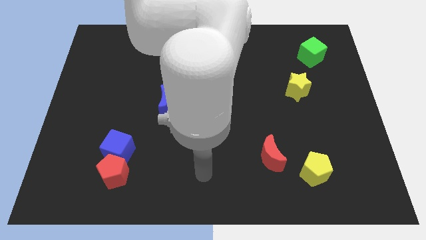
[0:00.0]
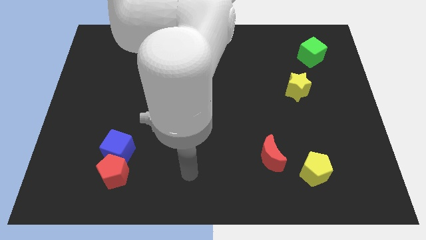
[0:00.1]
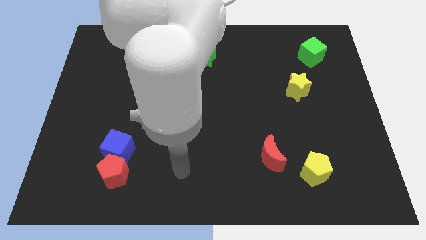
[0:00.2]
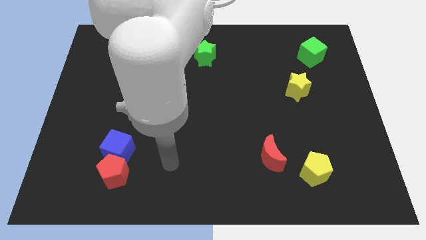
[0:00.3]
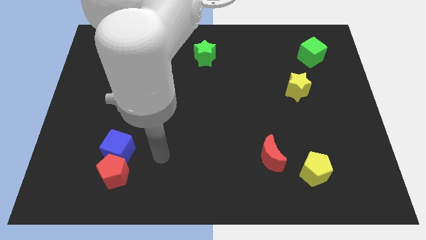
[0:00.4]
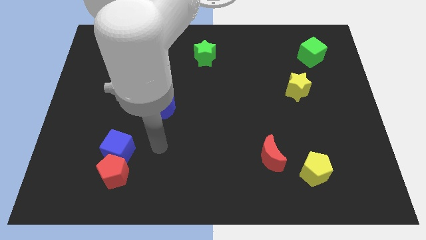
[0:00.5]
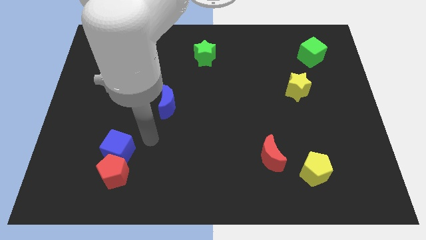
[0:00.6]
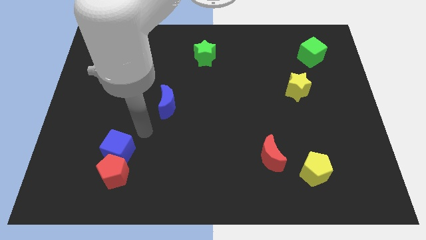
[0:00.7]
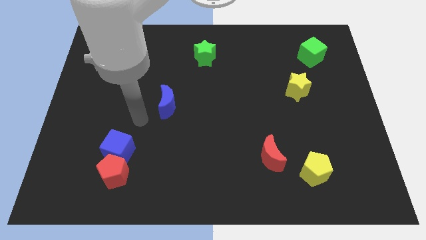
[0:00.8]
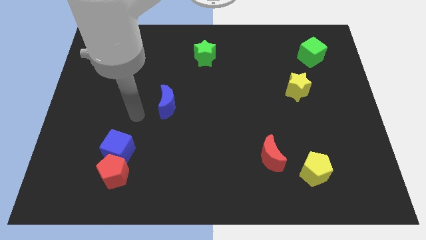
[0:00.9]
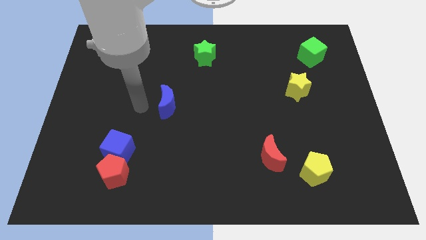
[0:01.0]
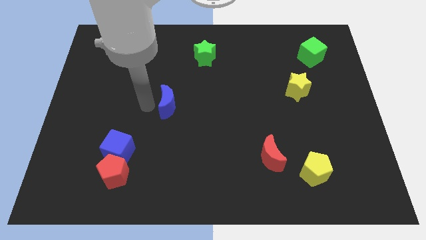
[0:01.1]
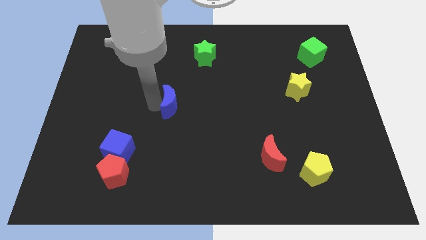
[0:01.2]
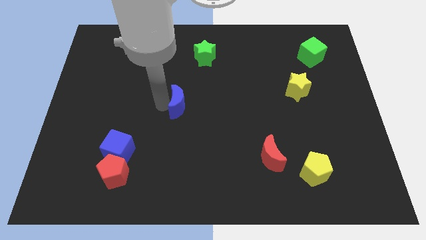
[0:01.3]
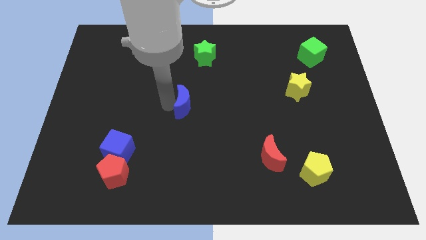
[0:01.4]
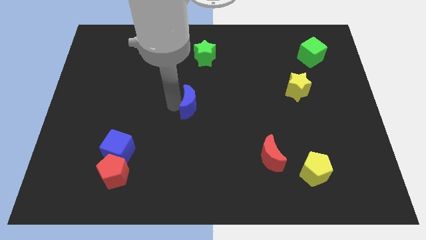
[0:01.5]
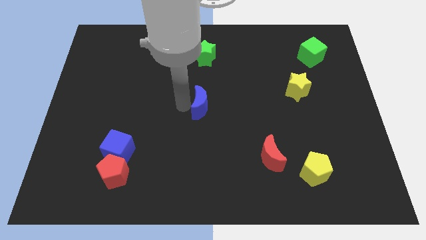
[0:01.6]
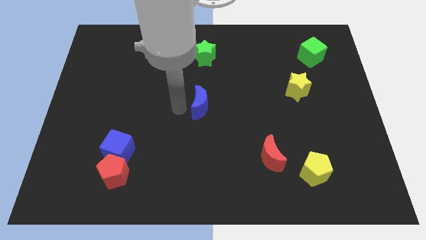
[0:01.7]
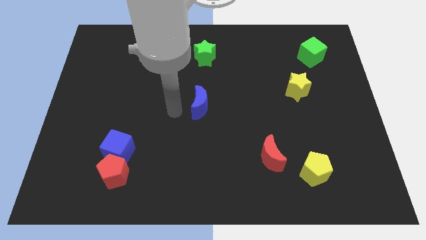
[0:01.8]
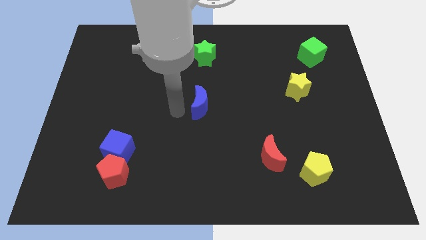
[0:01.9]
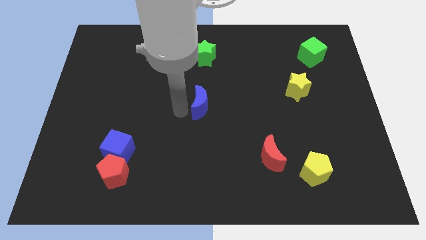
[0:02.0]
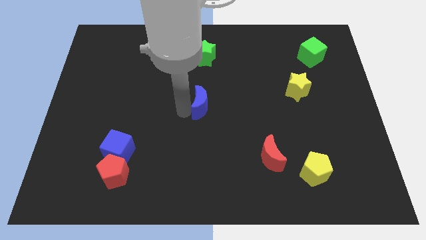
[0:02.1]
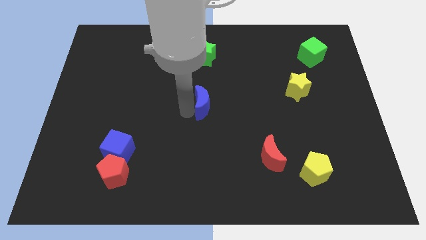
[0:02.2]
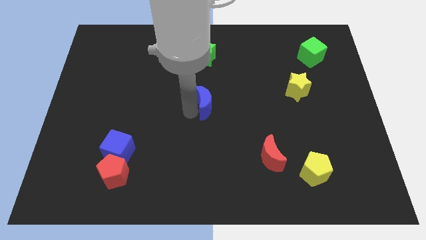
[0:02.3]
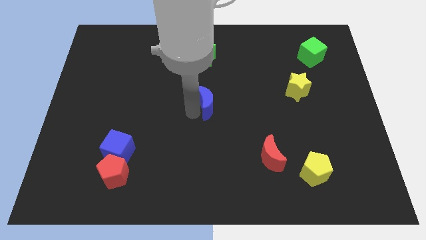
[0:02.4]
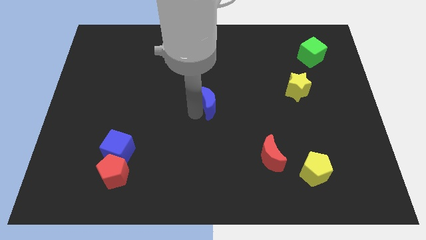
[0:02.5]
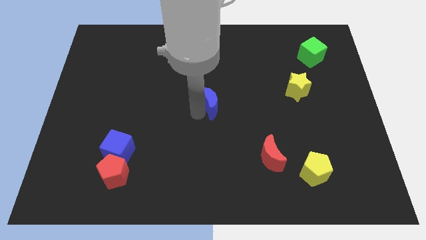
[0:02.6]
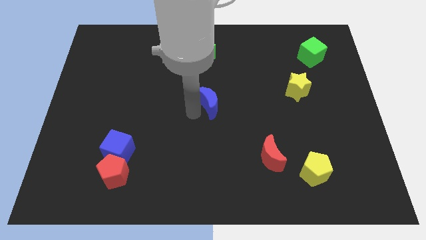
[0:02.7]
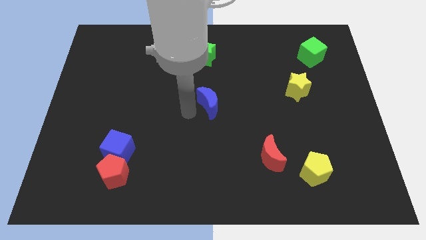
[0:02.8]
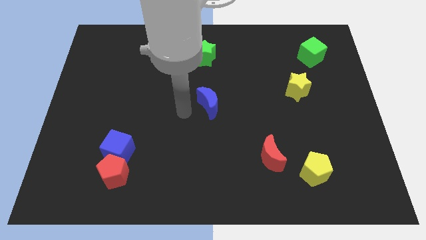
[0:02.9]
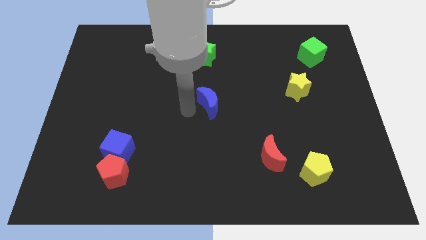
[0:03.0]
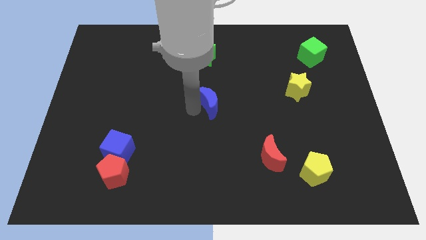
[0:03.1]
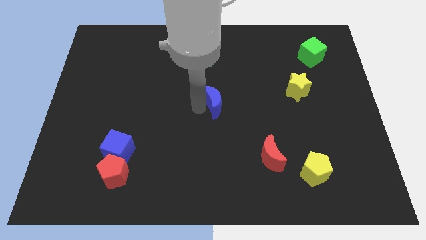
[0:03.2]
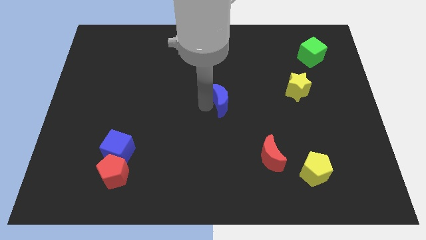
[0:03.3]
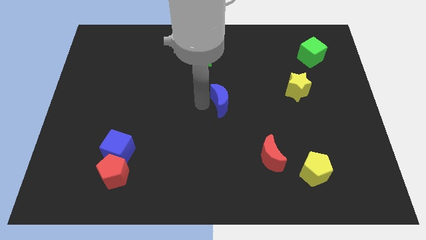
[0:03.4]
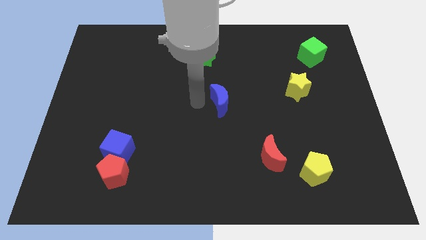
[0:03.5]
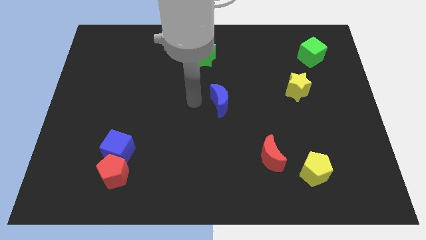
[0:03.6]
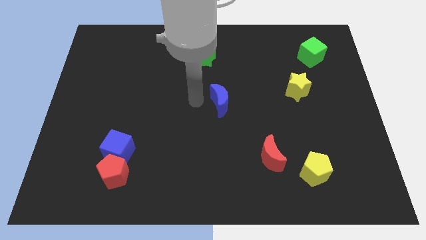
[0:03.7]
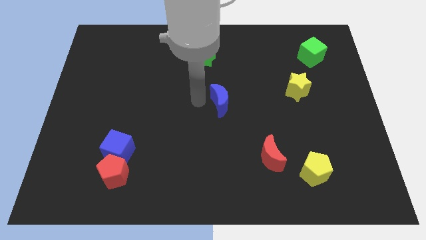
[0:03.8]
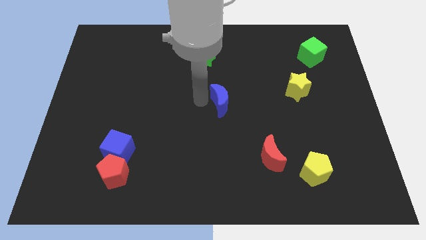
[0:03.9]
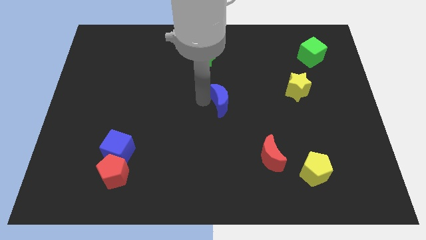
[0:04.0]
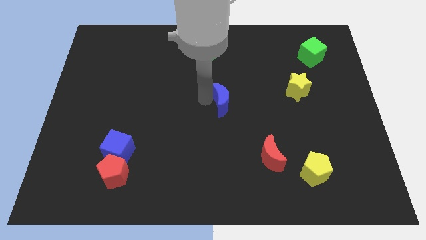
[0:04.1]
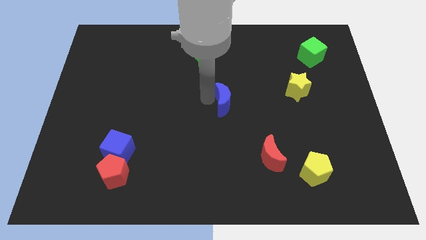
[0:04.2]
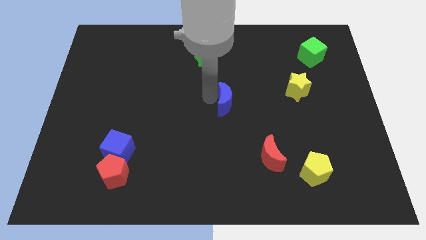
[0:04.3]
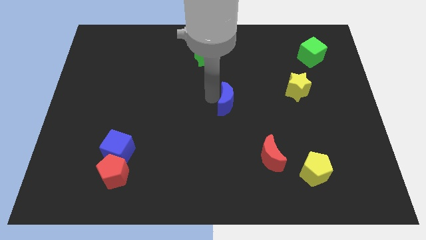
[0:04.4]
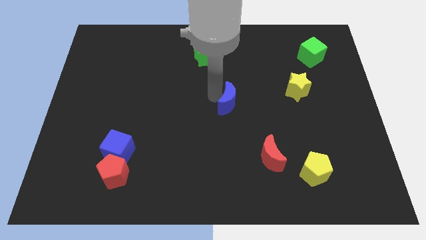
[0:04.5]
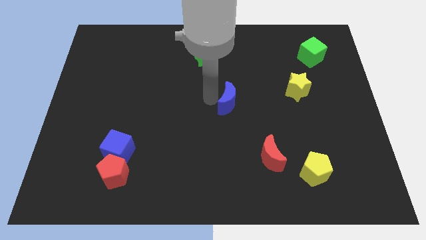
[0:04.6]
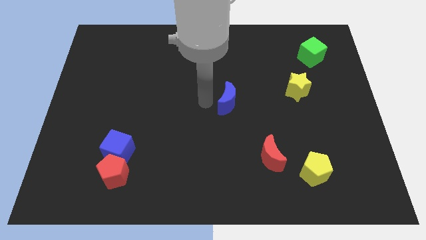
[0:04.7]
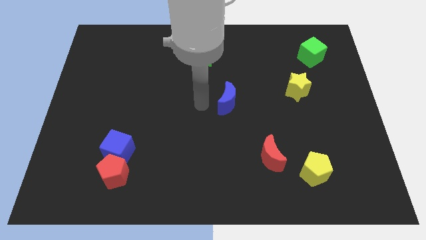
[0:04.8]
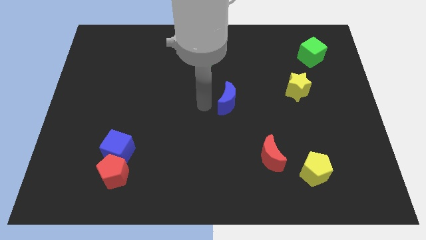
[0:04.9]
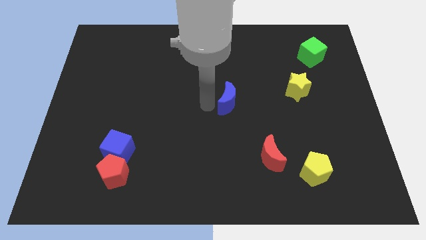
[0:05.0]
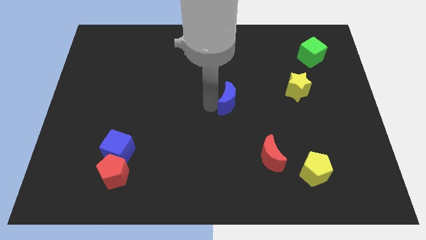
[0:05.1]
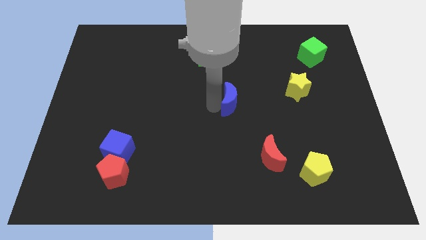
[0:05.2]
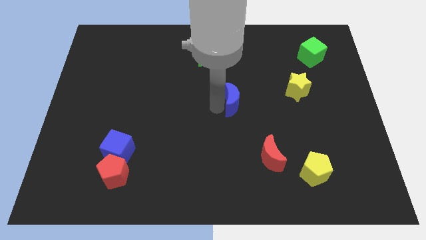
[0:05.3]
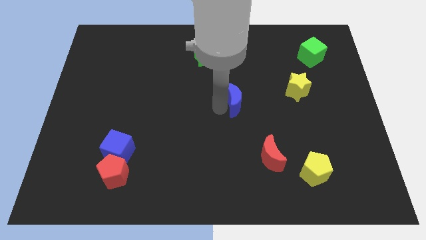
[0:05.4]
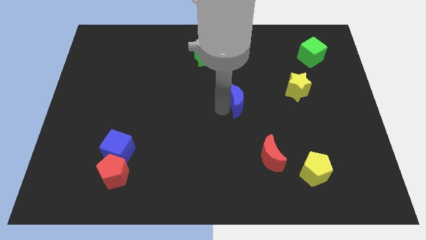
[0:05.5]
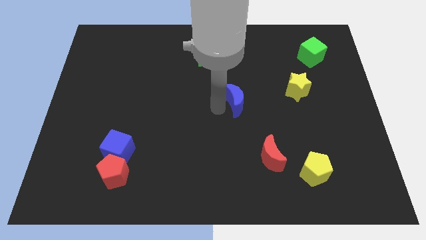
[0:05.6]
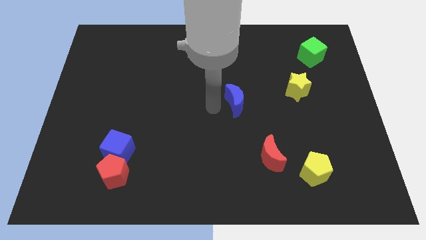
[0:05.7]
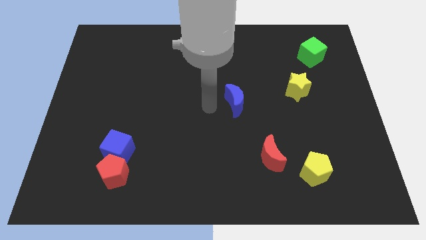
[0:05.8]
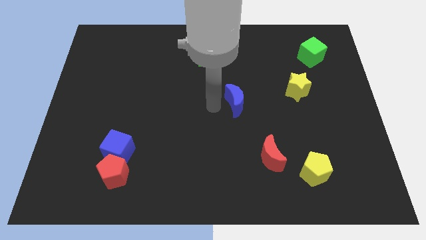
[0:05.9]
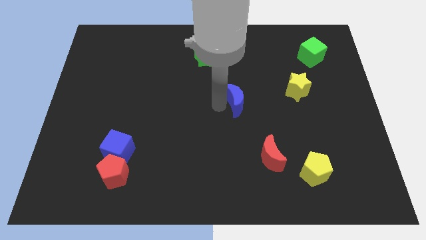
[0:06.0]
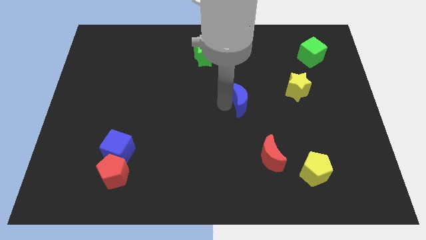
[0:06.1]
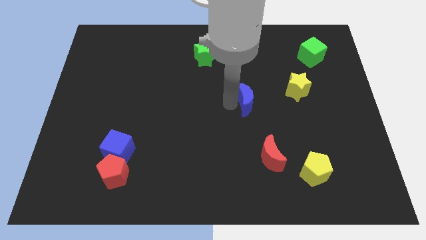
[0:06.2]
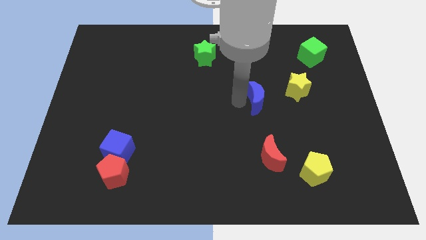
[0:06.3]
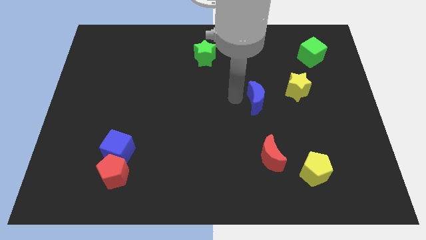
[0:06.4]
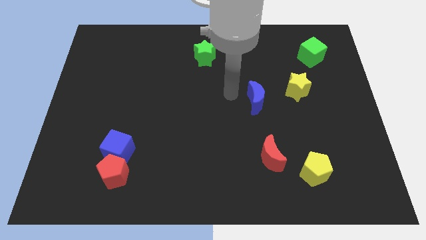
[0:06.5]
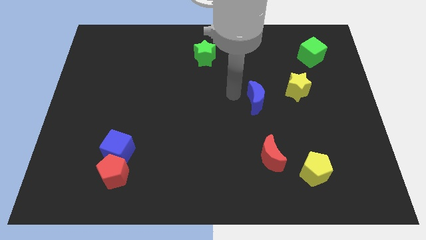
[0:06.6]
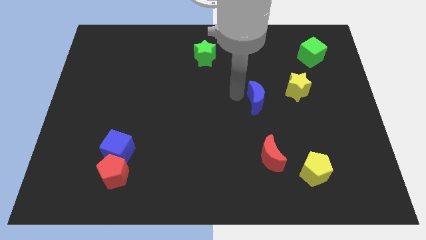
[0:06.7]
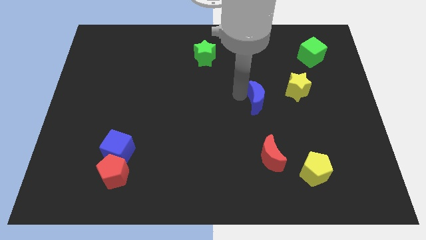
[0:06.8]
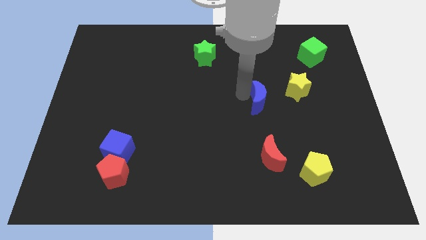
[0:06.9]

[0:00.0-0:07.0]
slide the blue moon to the bottom left side of the yellow star
